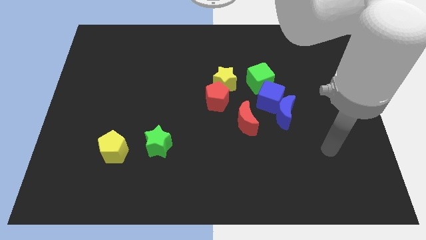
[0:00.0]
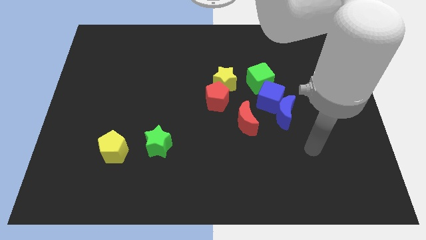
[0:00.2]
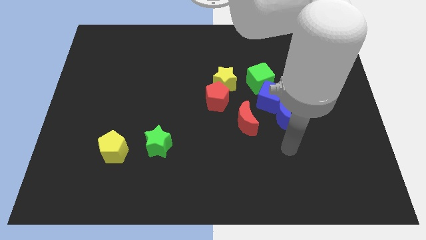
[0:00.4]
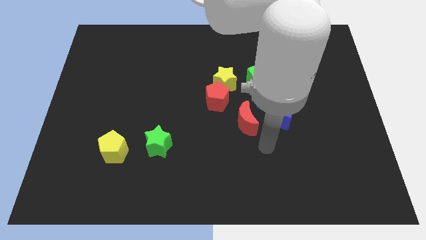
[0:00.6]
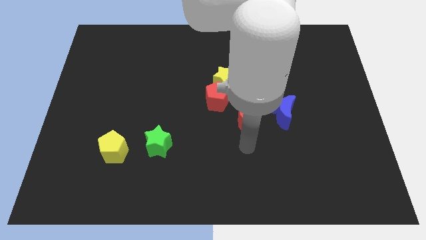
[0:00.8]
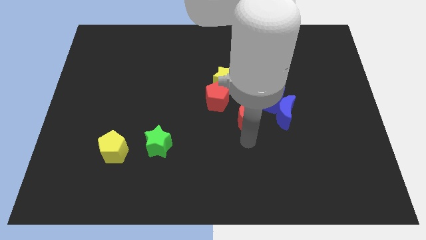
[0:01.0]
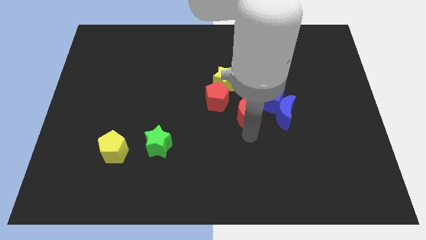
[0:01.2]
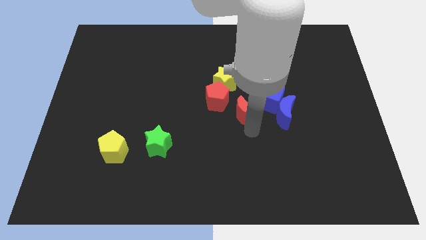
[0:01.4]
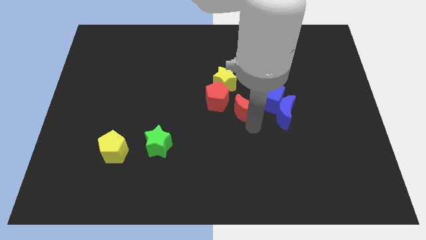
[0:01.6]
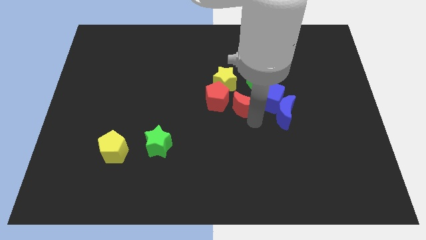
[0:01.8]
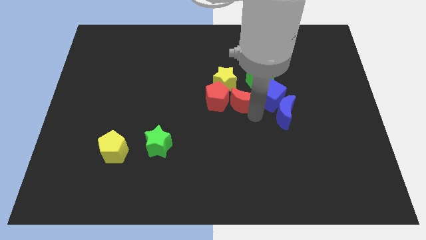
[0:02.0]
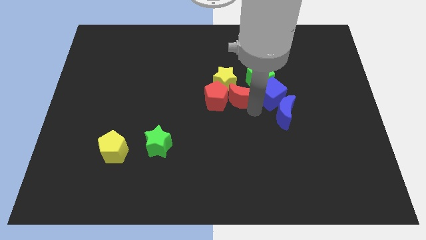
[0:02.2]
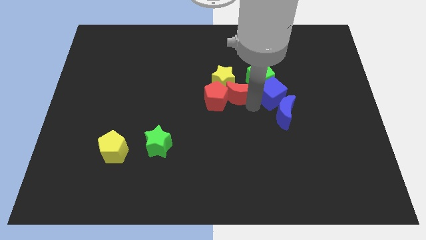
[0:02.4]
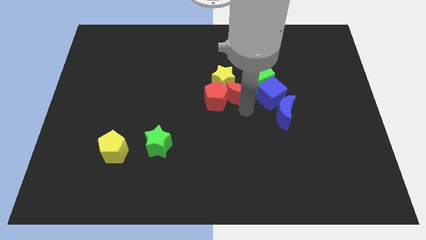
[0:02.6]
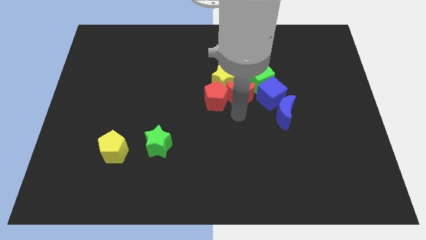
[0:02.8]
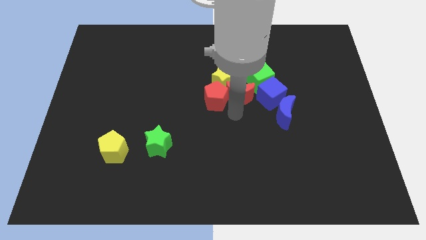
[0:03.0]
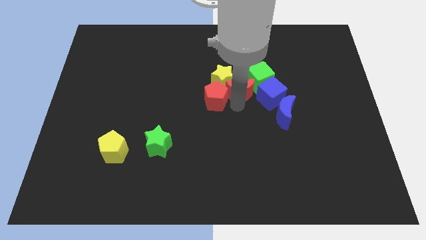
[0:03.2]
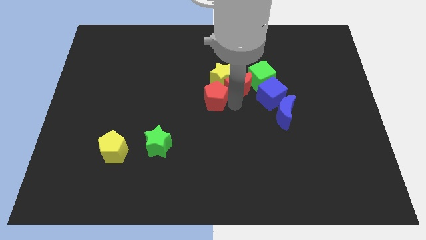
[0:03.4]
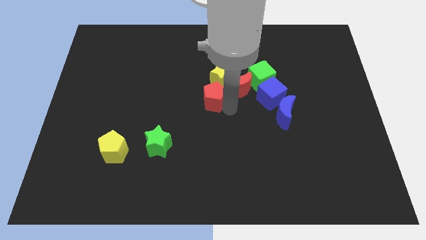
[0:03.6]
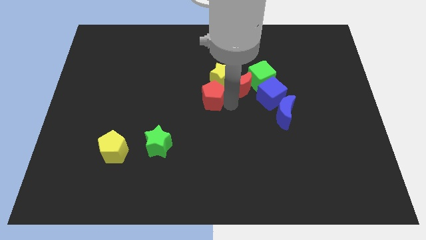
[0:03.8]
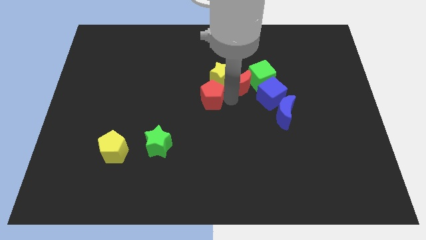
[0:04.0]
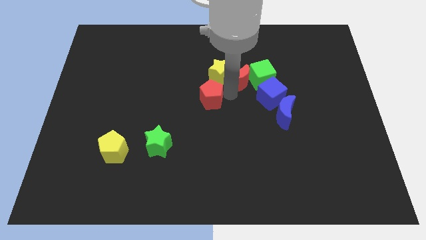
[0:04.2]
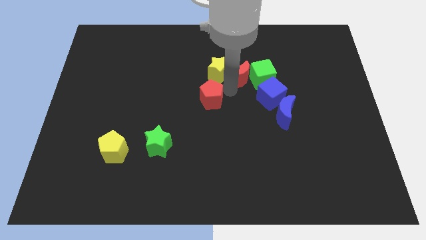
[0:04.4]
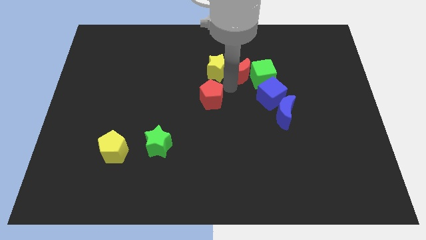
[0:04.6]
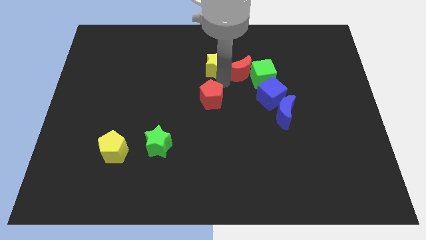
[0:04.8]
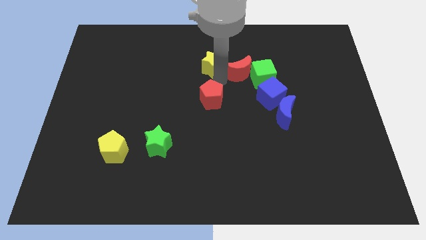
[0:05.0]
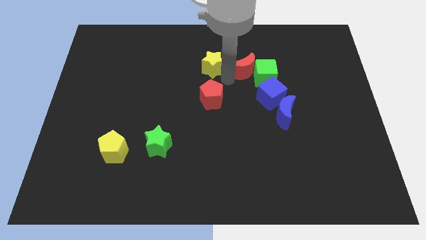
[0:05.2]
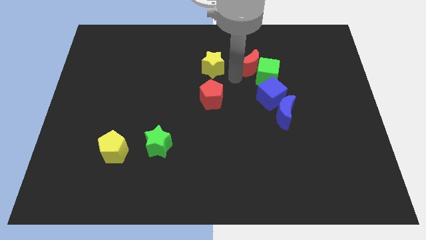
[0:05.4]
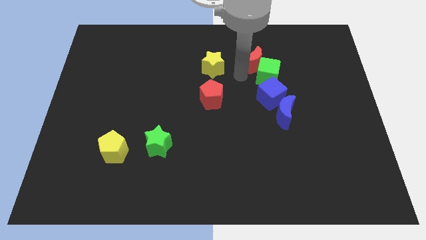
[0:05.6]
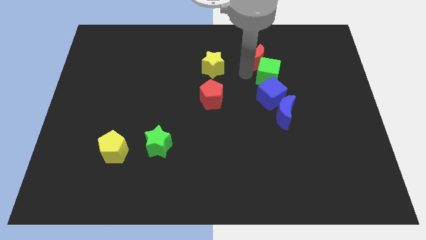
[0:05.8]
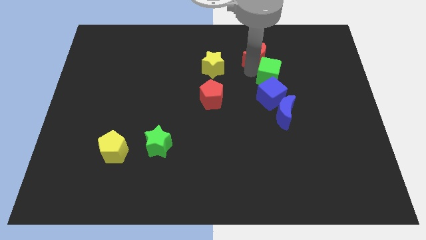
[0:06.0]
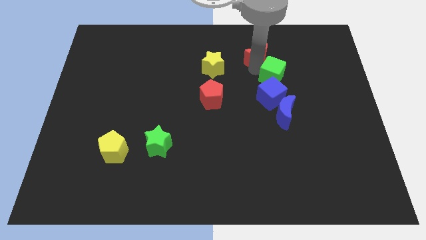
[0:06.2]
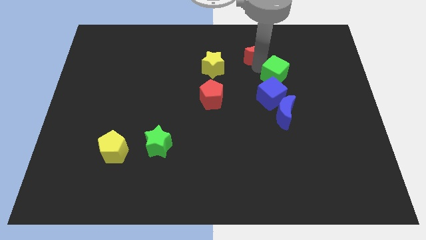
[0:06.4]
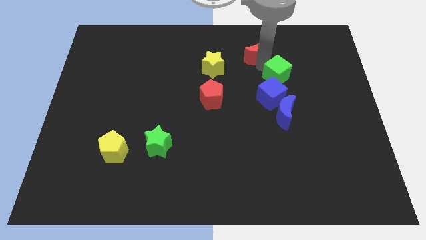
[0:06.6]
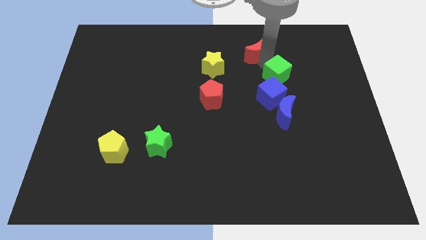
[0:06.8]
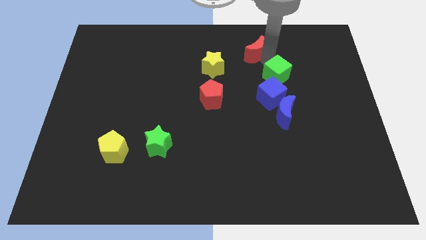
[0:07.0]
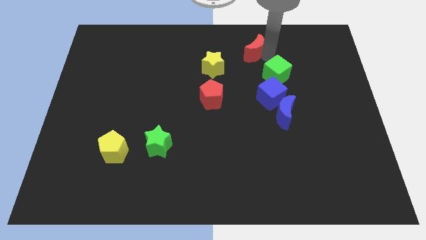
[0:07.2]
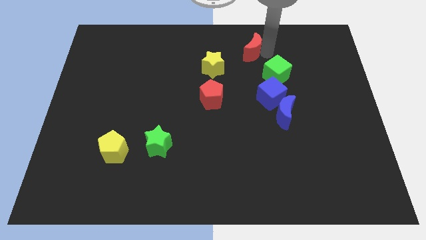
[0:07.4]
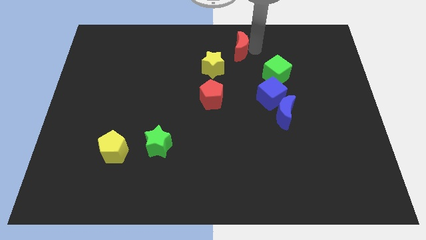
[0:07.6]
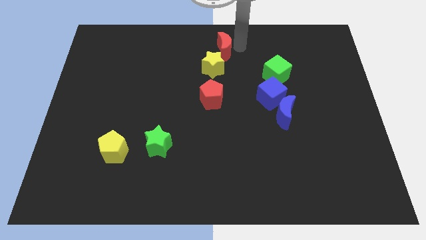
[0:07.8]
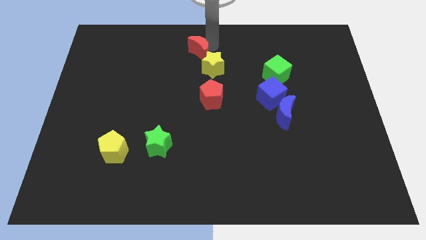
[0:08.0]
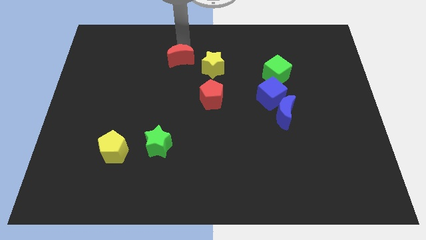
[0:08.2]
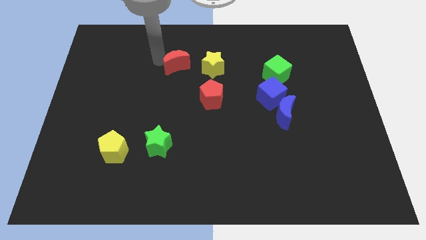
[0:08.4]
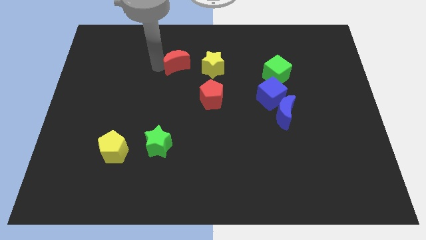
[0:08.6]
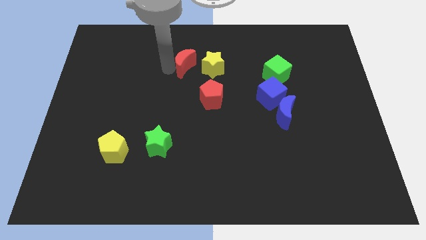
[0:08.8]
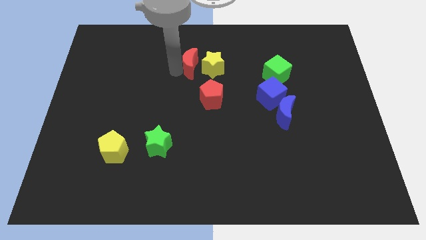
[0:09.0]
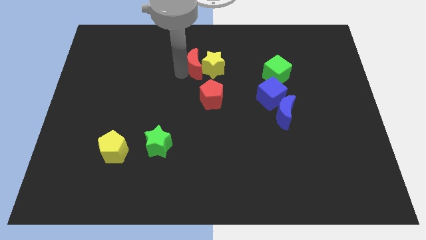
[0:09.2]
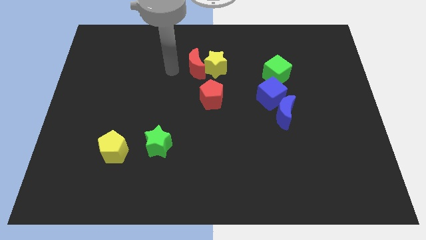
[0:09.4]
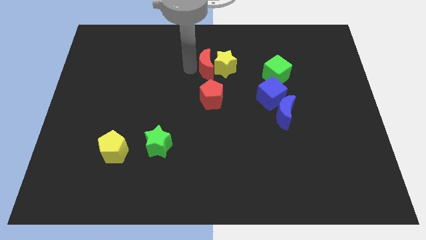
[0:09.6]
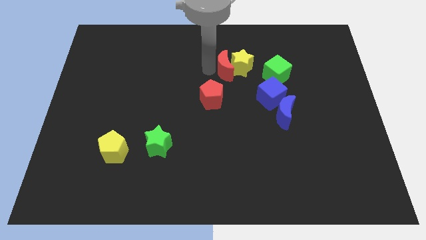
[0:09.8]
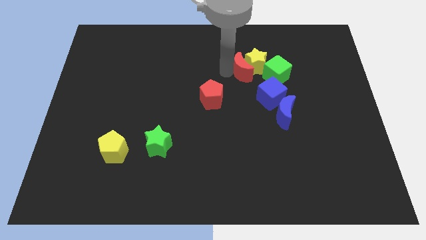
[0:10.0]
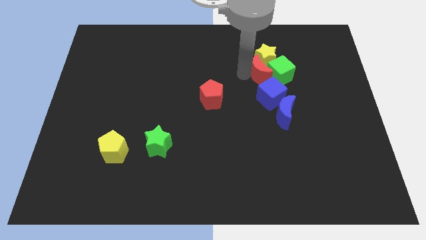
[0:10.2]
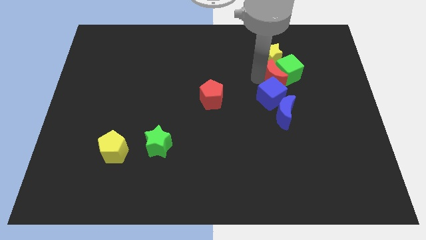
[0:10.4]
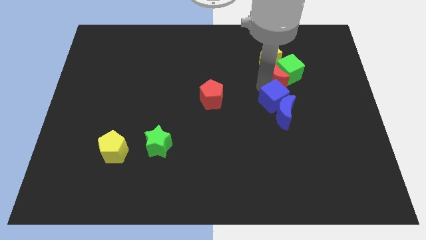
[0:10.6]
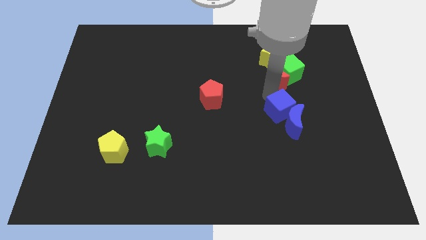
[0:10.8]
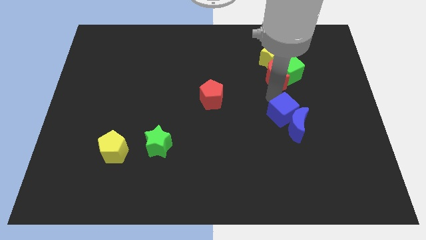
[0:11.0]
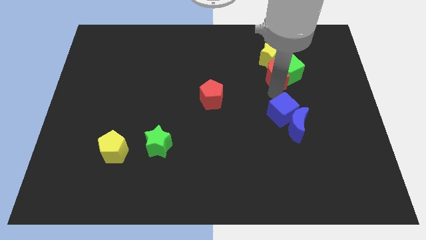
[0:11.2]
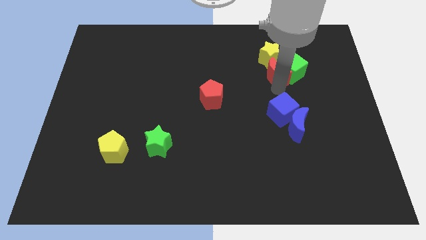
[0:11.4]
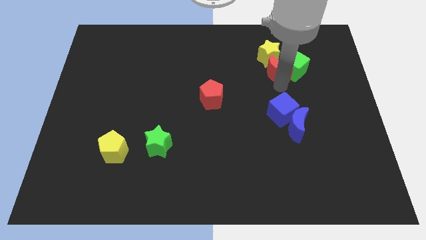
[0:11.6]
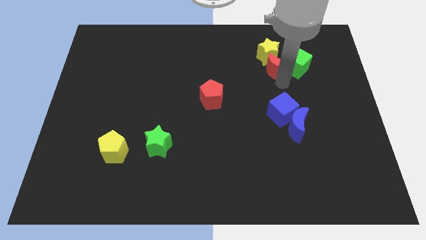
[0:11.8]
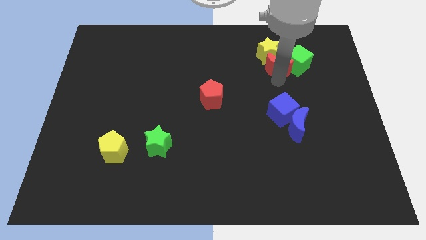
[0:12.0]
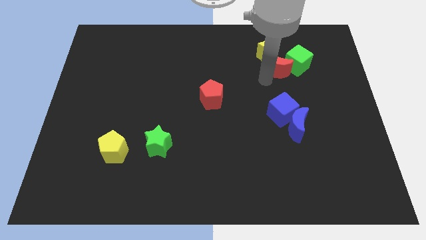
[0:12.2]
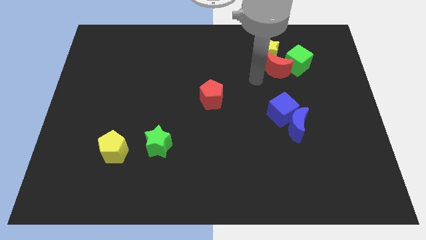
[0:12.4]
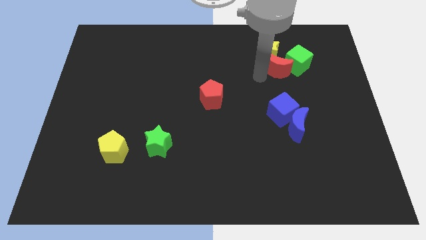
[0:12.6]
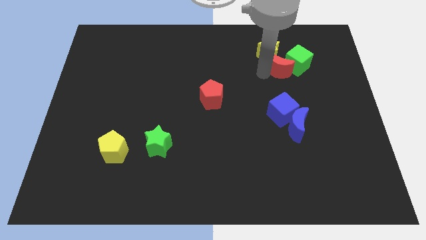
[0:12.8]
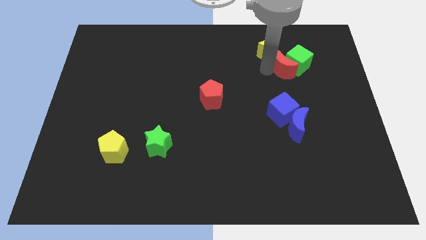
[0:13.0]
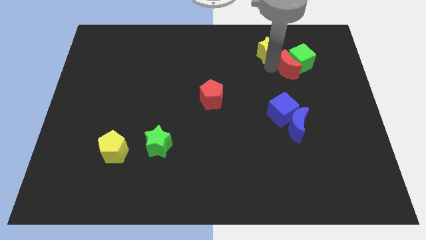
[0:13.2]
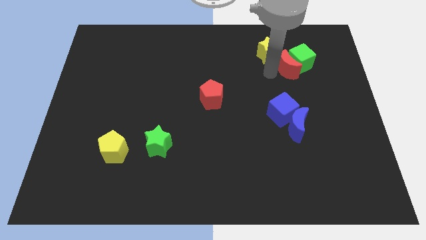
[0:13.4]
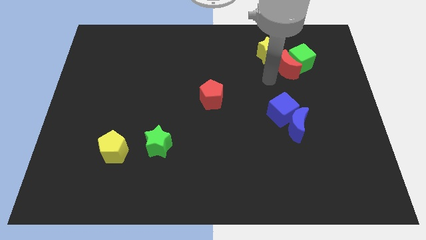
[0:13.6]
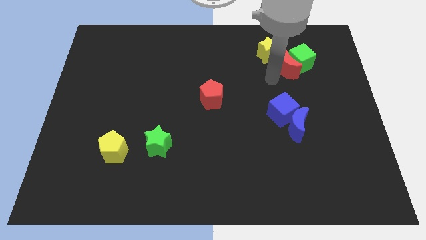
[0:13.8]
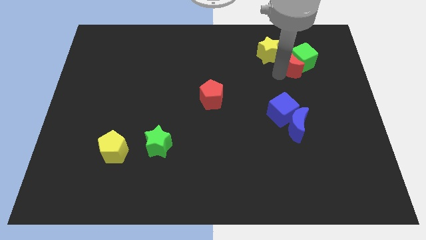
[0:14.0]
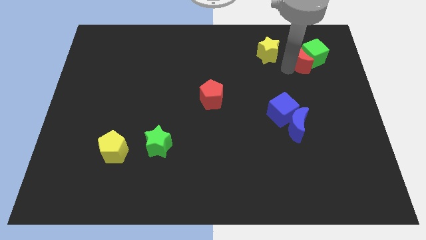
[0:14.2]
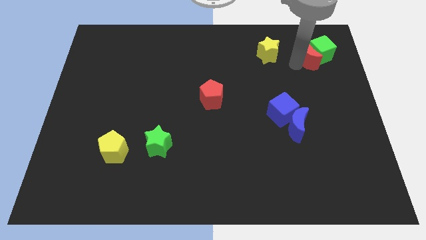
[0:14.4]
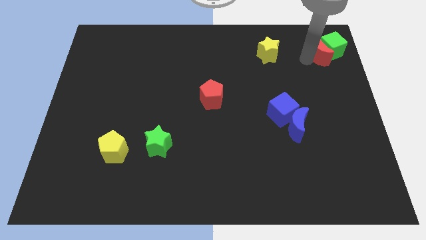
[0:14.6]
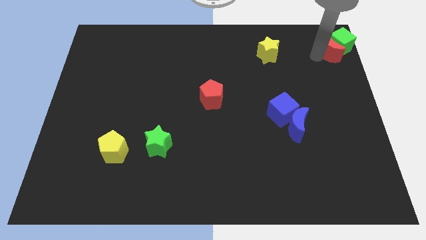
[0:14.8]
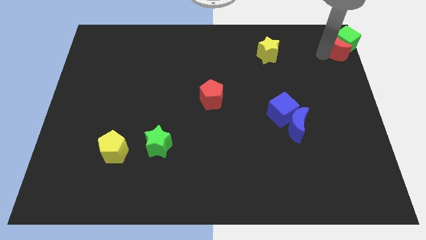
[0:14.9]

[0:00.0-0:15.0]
move the red moon to the upper right corner
